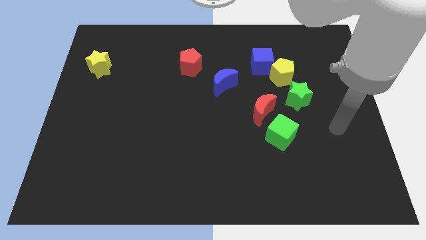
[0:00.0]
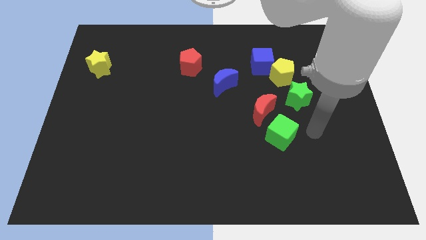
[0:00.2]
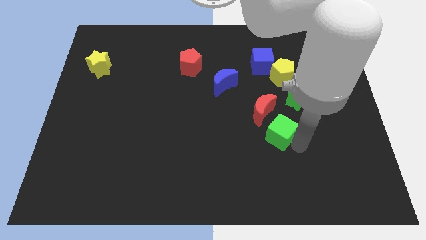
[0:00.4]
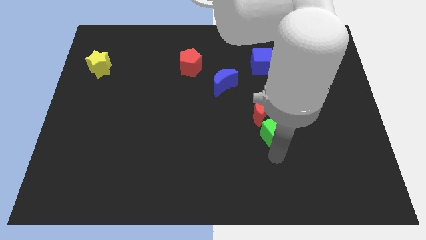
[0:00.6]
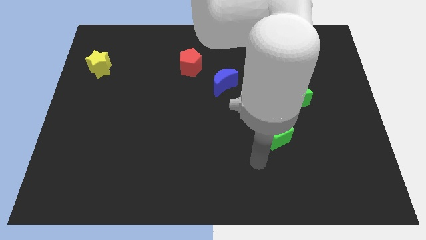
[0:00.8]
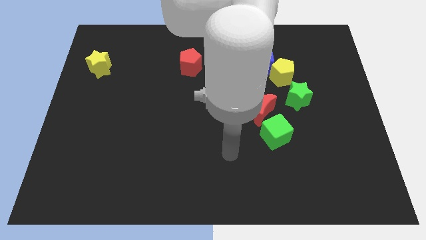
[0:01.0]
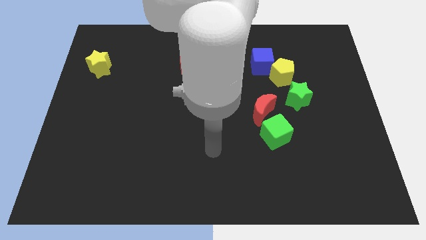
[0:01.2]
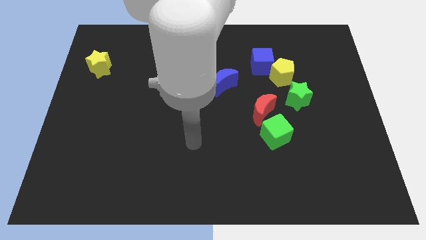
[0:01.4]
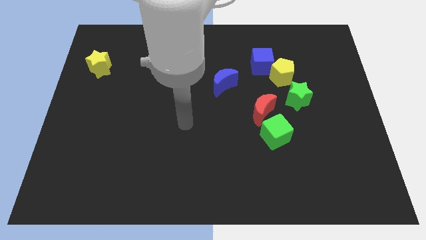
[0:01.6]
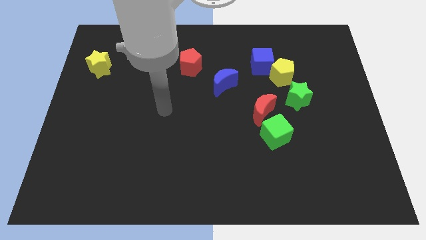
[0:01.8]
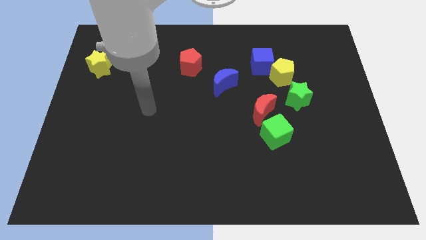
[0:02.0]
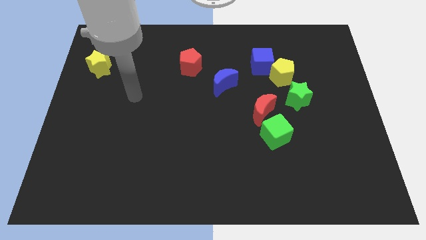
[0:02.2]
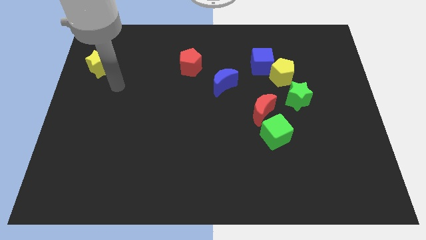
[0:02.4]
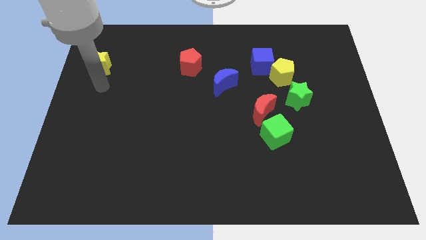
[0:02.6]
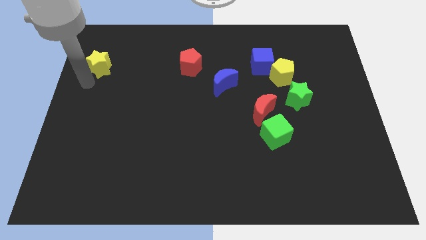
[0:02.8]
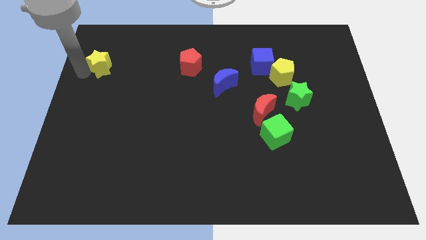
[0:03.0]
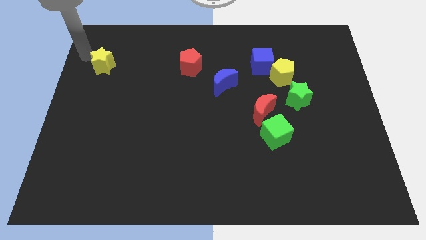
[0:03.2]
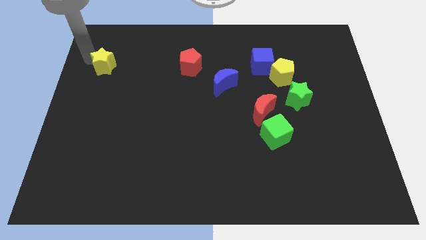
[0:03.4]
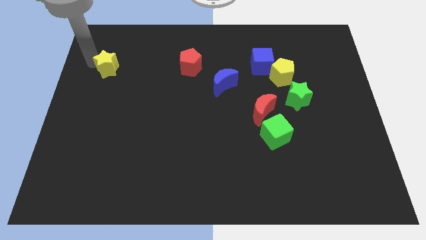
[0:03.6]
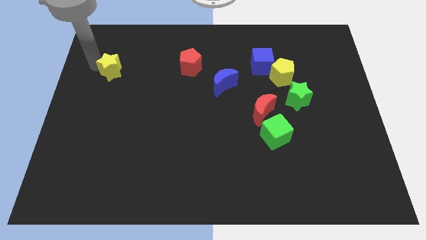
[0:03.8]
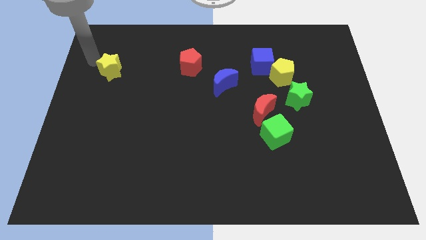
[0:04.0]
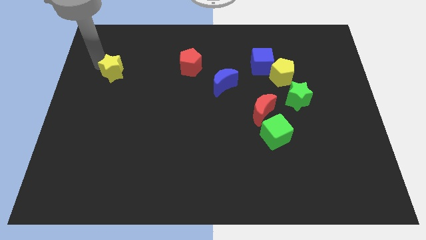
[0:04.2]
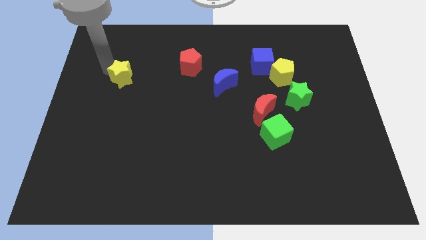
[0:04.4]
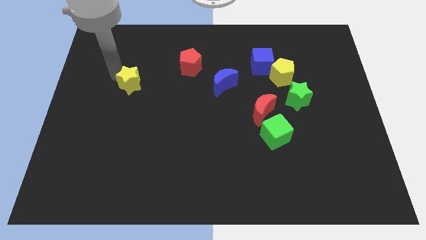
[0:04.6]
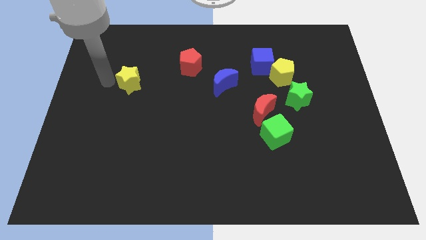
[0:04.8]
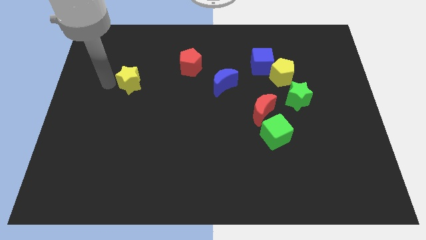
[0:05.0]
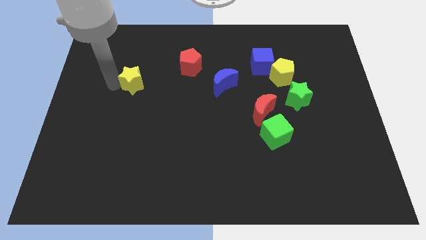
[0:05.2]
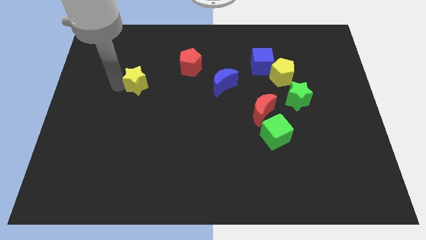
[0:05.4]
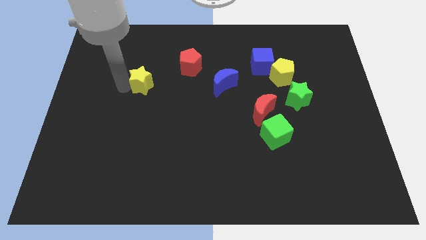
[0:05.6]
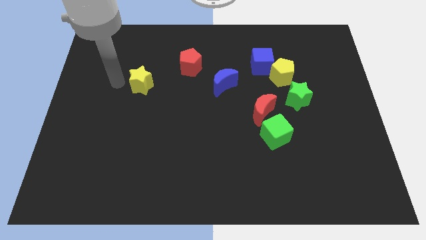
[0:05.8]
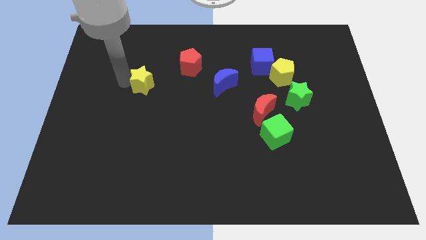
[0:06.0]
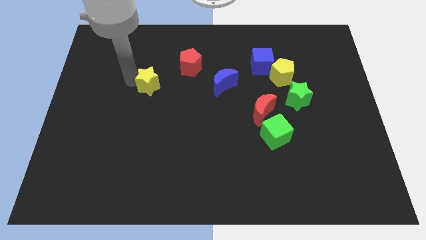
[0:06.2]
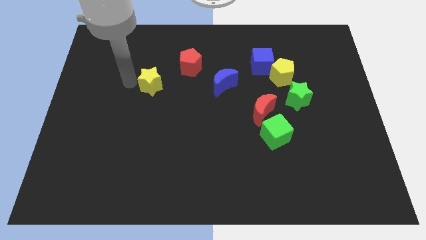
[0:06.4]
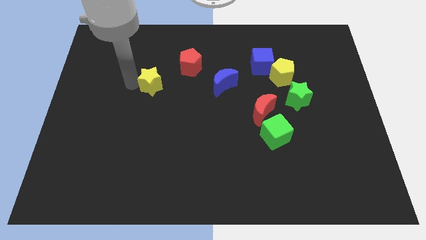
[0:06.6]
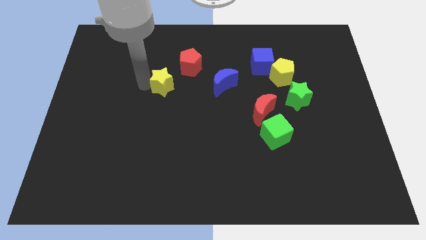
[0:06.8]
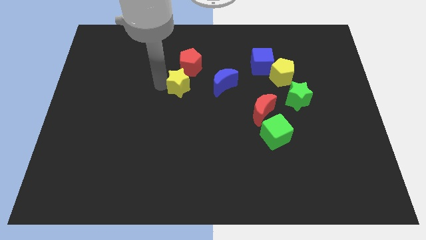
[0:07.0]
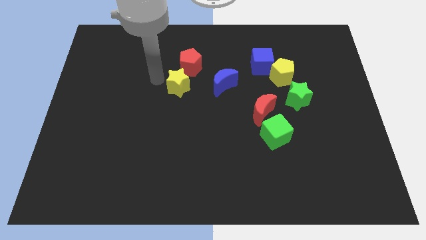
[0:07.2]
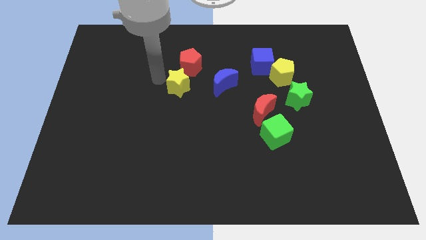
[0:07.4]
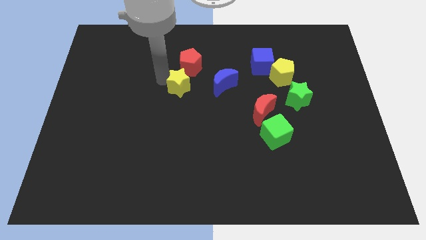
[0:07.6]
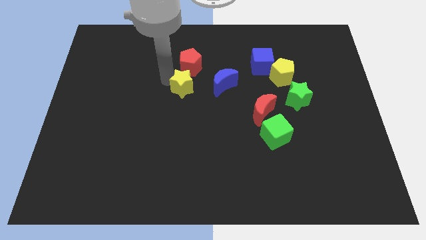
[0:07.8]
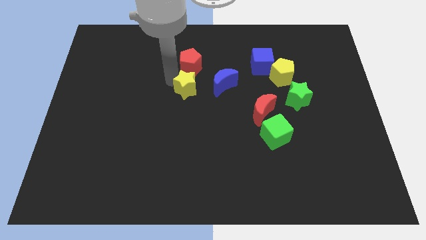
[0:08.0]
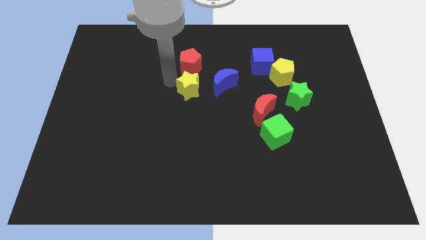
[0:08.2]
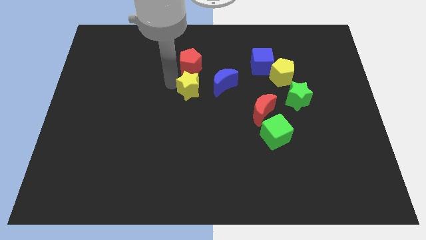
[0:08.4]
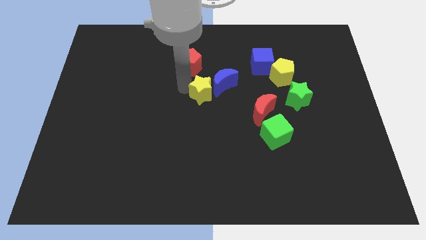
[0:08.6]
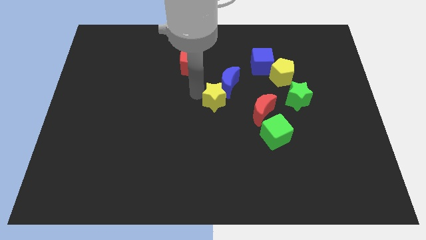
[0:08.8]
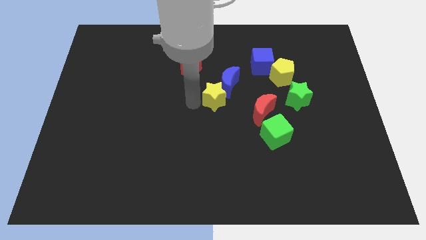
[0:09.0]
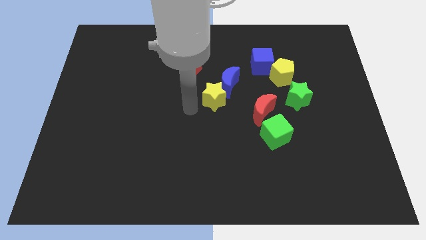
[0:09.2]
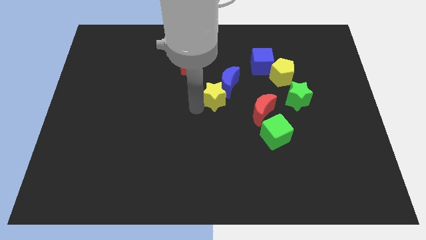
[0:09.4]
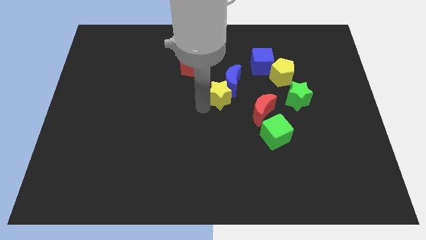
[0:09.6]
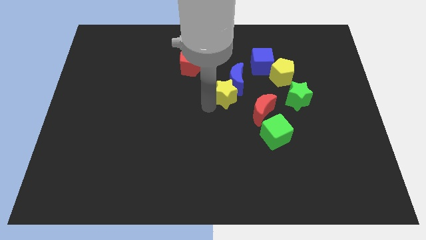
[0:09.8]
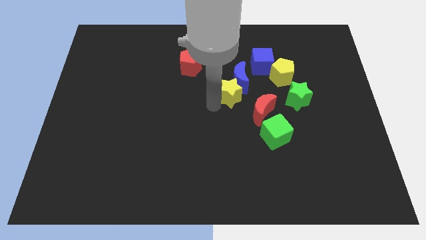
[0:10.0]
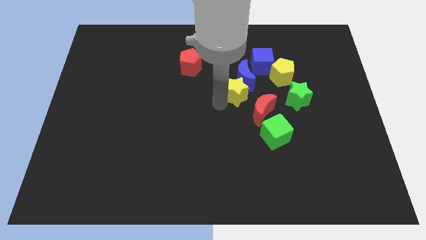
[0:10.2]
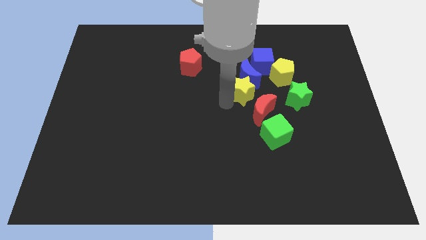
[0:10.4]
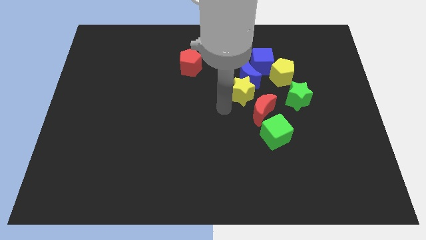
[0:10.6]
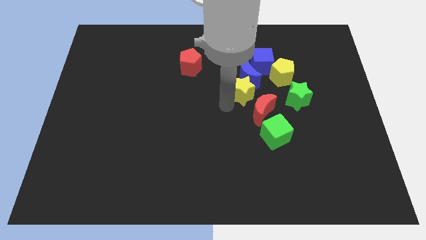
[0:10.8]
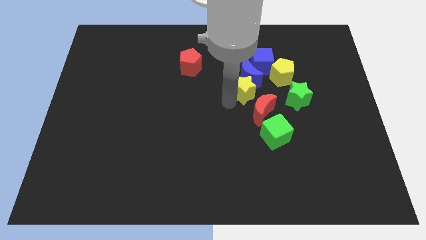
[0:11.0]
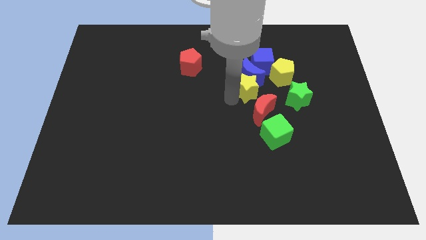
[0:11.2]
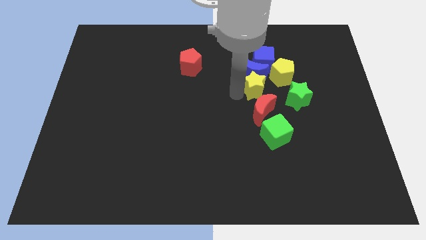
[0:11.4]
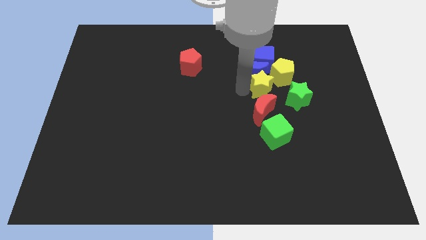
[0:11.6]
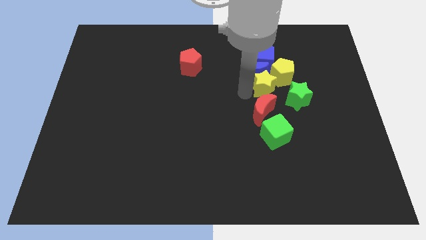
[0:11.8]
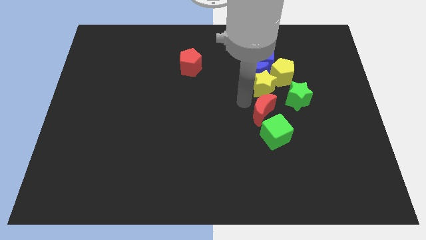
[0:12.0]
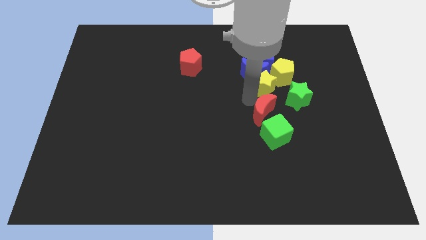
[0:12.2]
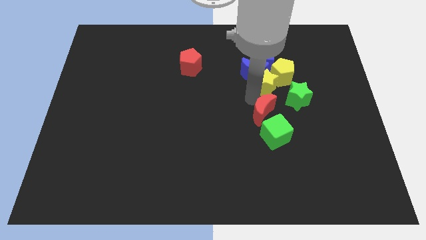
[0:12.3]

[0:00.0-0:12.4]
slide the yellow star next to the yellow pentagon

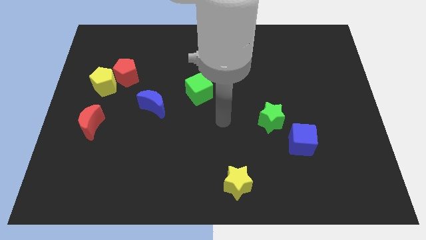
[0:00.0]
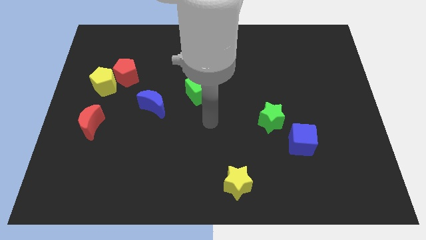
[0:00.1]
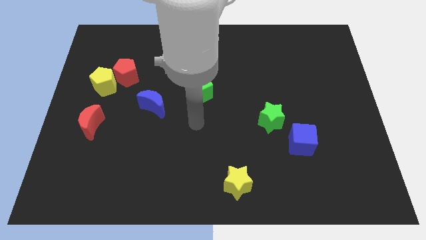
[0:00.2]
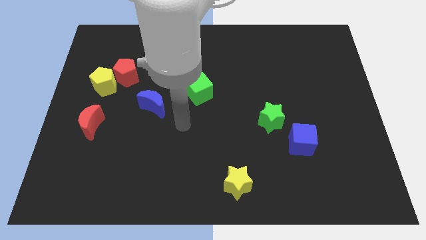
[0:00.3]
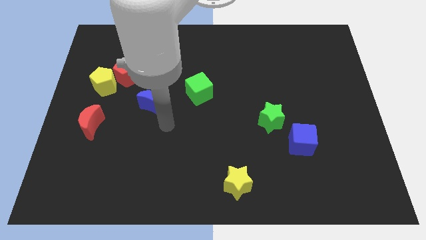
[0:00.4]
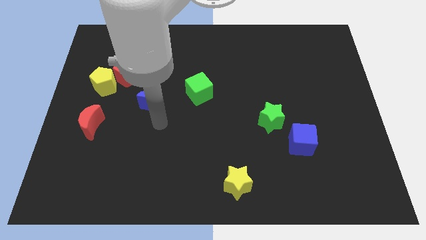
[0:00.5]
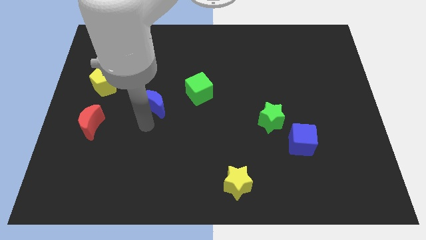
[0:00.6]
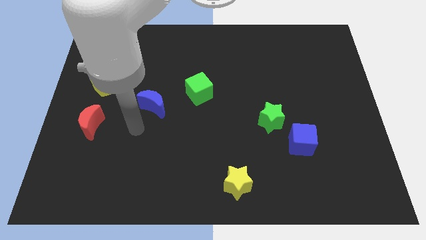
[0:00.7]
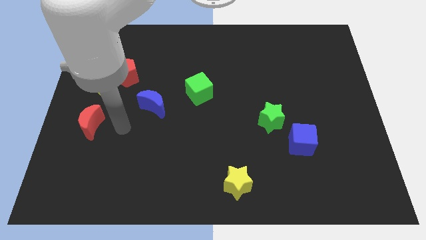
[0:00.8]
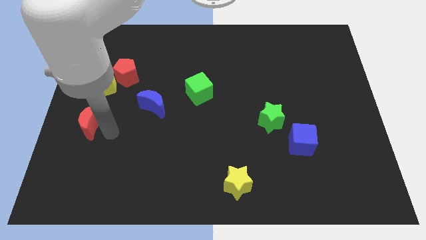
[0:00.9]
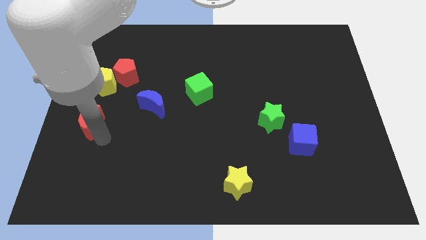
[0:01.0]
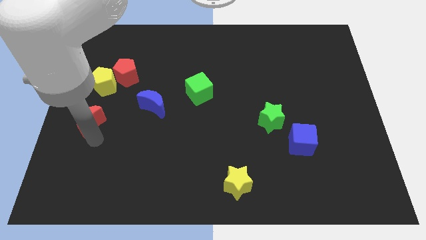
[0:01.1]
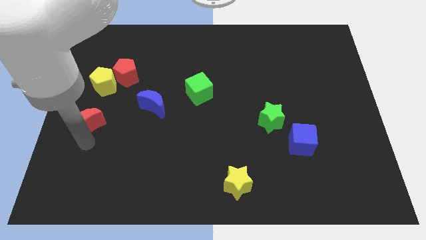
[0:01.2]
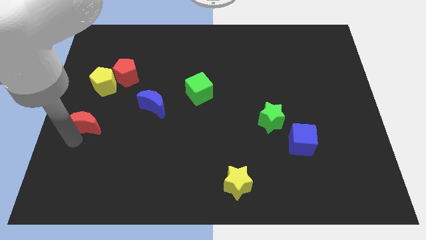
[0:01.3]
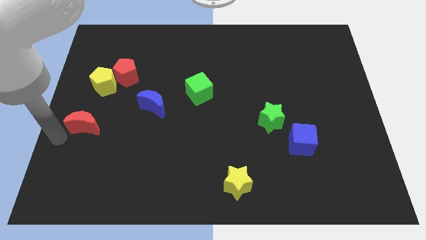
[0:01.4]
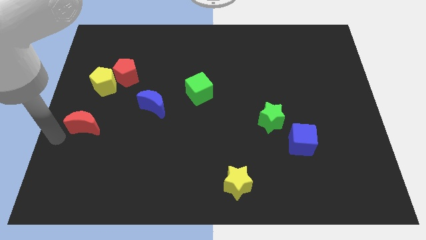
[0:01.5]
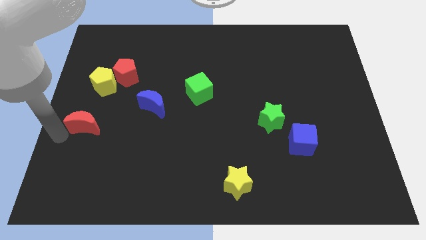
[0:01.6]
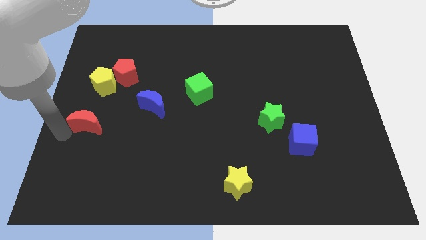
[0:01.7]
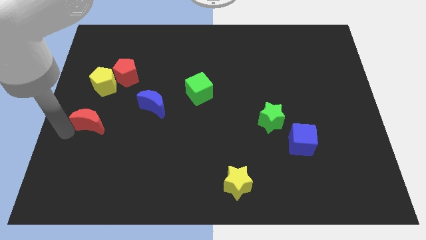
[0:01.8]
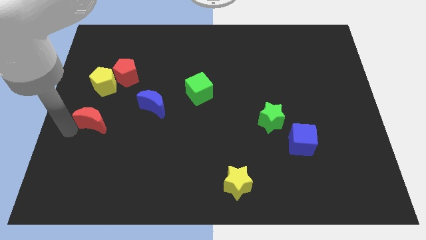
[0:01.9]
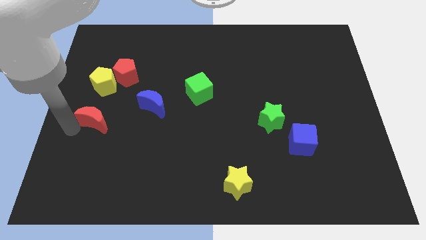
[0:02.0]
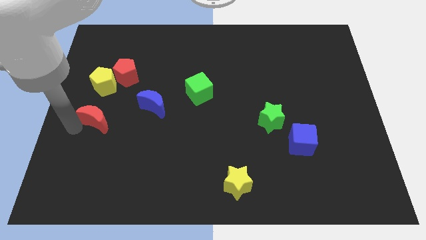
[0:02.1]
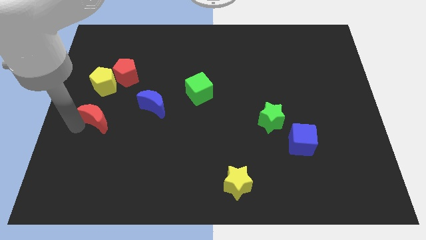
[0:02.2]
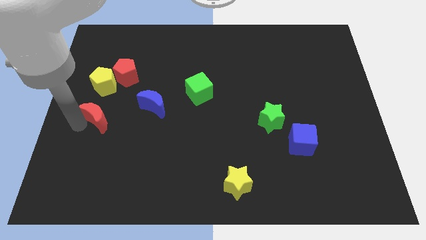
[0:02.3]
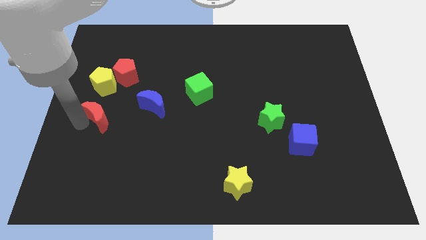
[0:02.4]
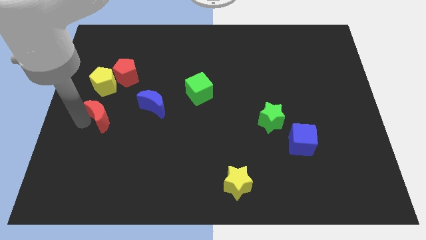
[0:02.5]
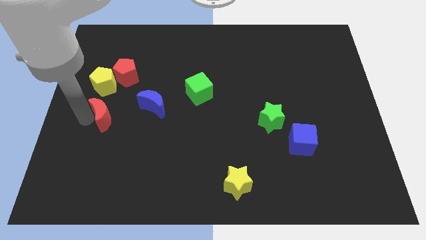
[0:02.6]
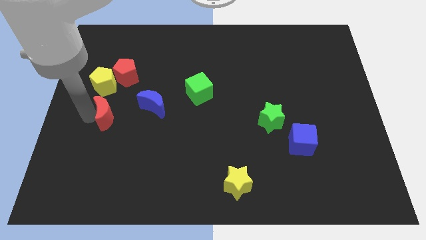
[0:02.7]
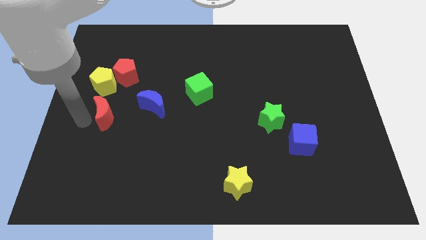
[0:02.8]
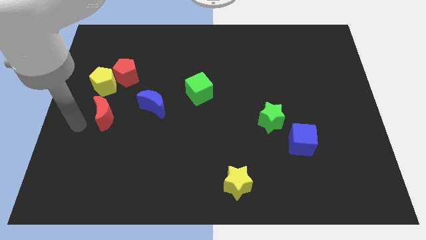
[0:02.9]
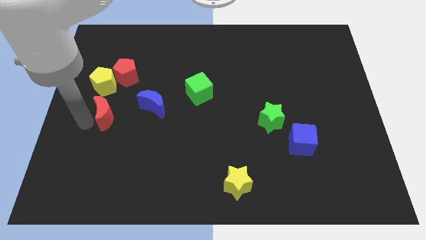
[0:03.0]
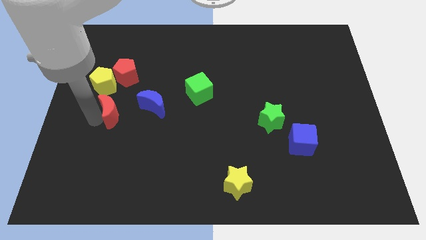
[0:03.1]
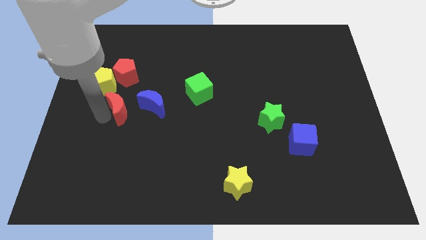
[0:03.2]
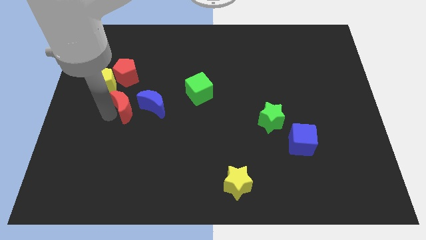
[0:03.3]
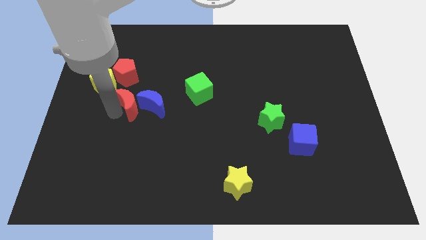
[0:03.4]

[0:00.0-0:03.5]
put the red moon next to the blue moon
